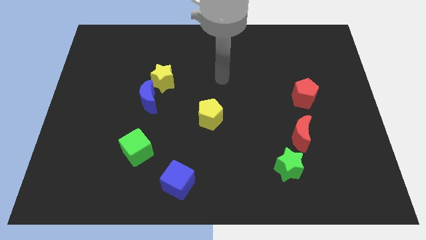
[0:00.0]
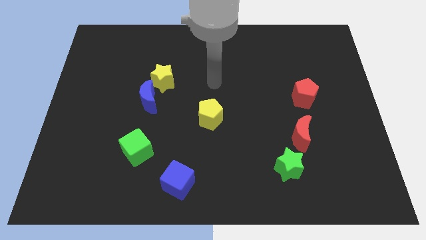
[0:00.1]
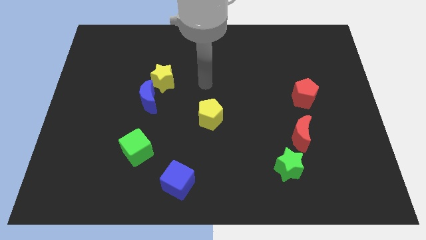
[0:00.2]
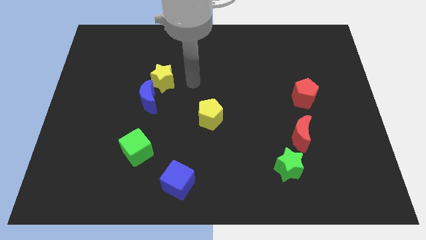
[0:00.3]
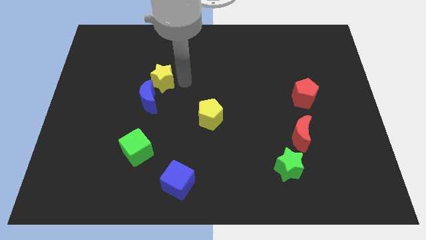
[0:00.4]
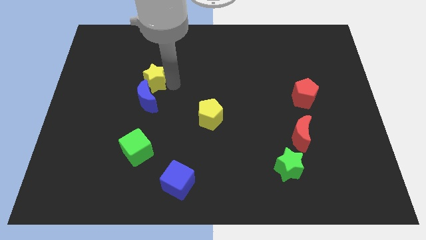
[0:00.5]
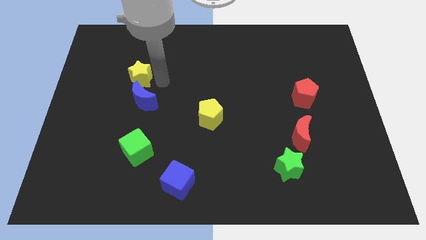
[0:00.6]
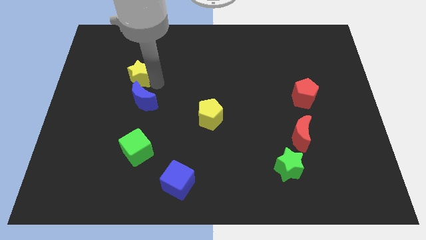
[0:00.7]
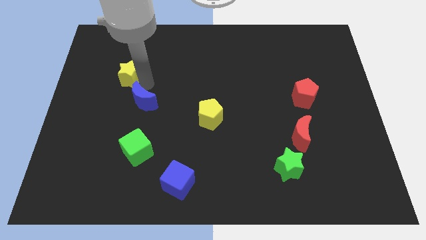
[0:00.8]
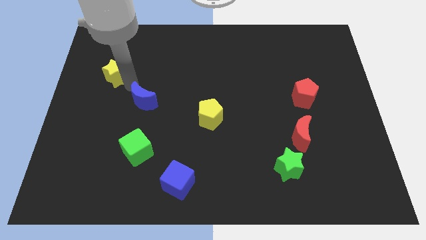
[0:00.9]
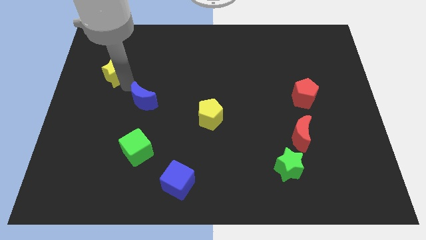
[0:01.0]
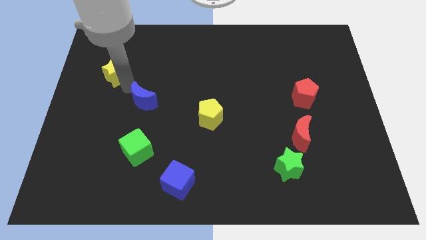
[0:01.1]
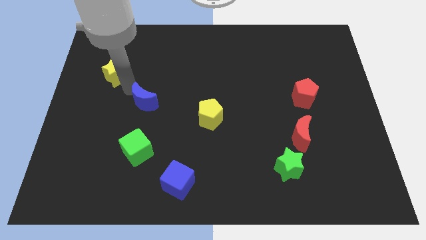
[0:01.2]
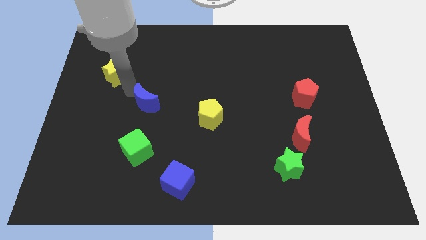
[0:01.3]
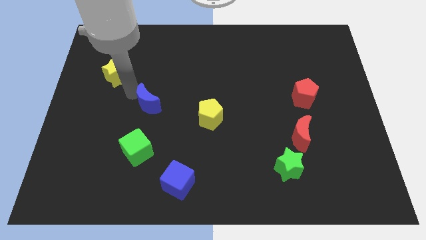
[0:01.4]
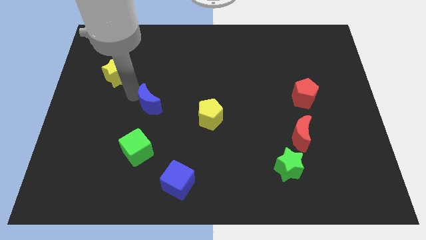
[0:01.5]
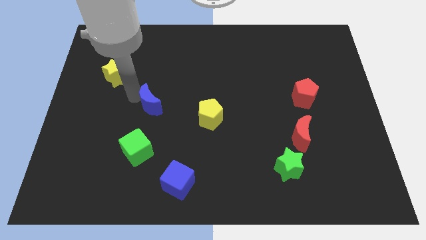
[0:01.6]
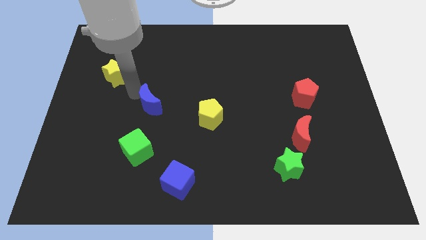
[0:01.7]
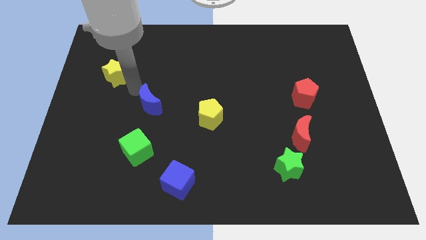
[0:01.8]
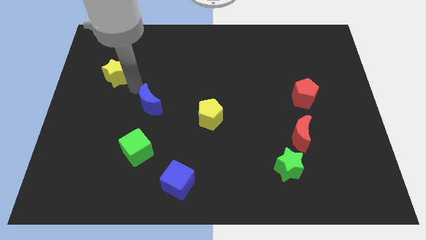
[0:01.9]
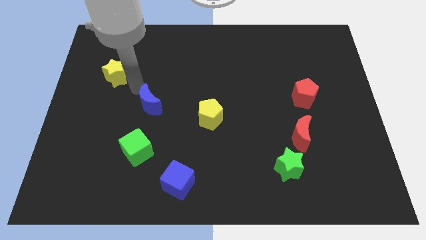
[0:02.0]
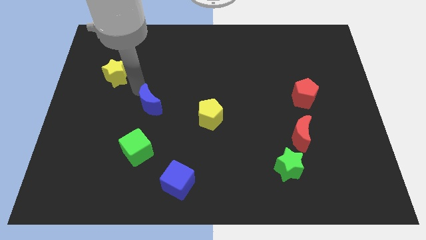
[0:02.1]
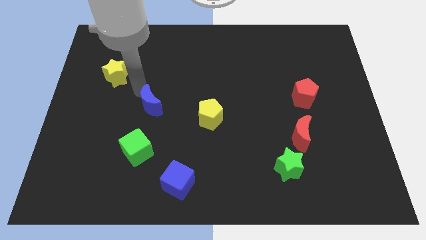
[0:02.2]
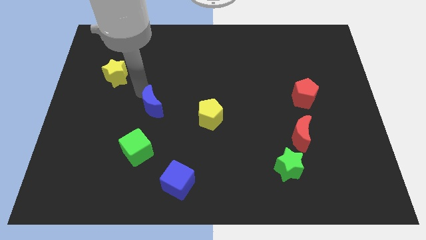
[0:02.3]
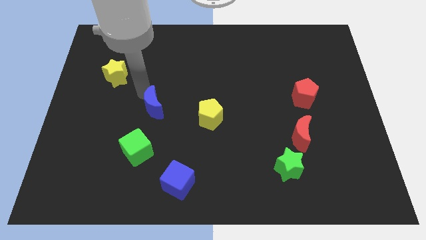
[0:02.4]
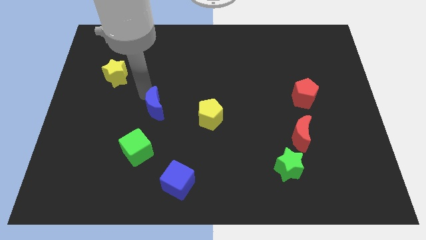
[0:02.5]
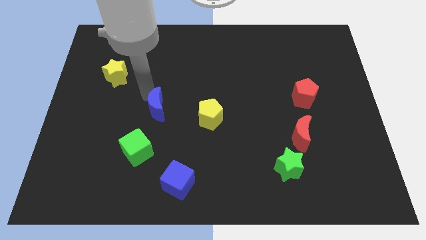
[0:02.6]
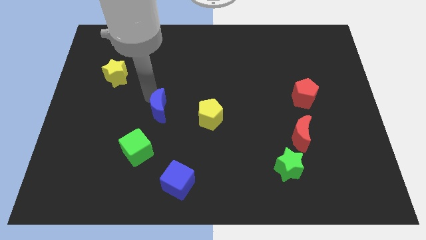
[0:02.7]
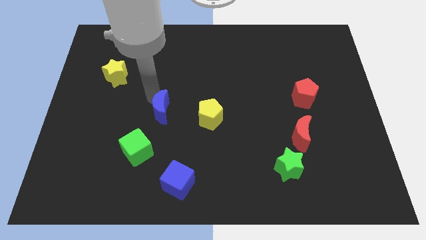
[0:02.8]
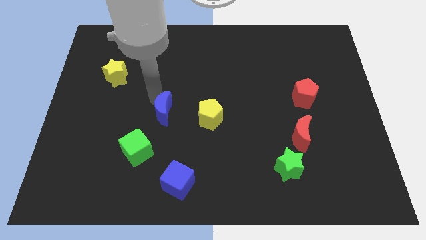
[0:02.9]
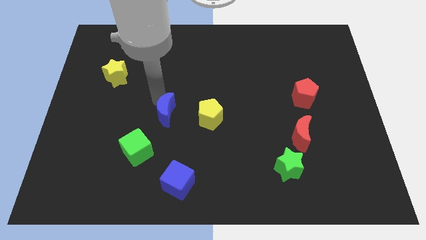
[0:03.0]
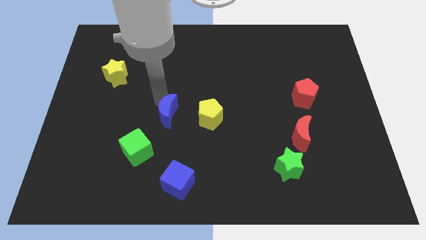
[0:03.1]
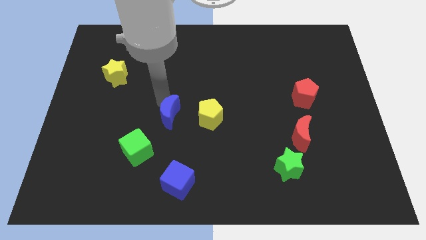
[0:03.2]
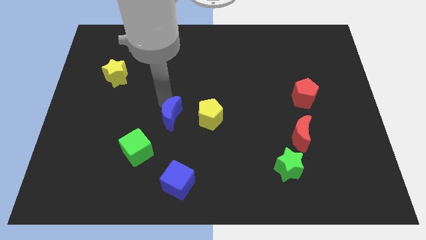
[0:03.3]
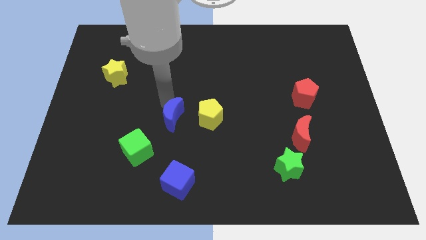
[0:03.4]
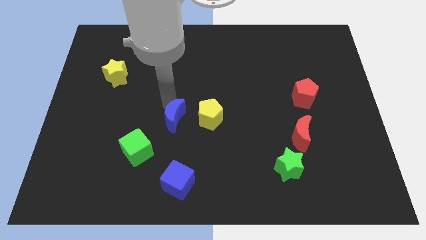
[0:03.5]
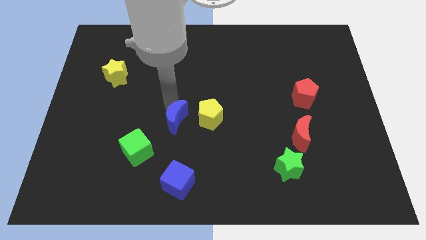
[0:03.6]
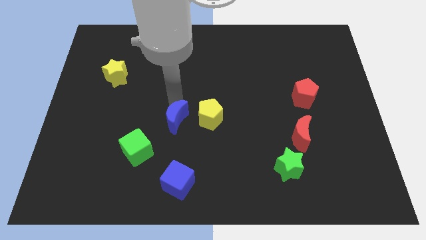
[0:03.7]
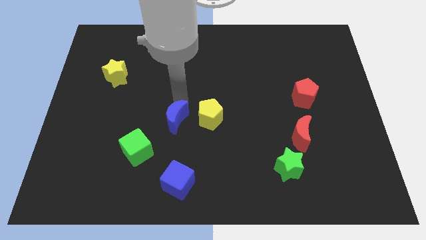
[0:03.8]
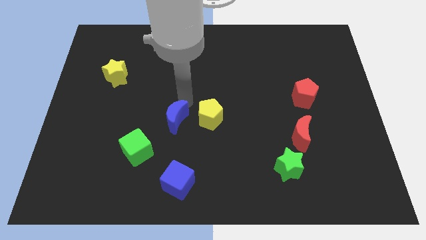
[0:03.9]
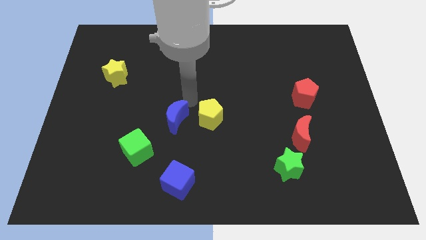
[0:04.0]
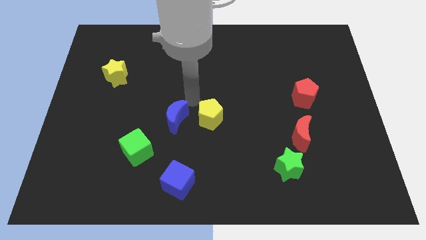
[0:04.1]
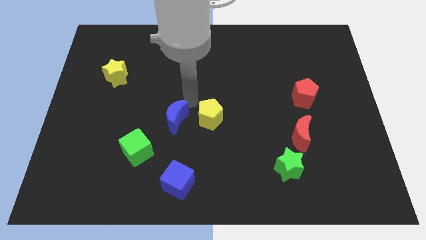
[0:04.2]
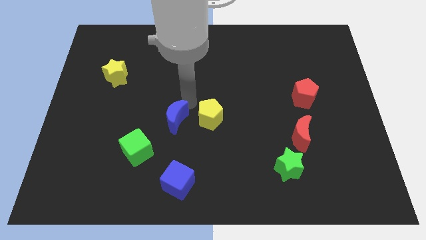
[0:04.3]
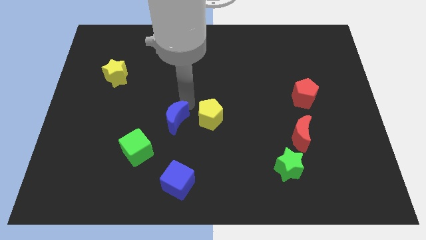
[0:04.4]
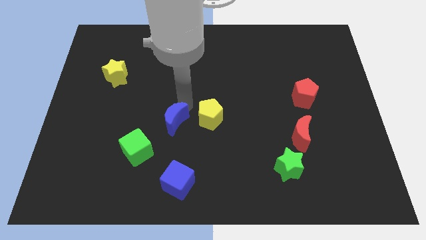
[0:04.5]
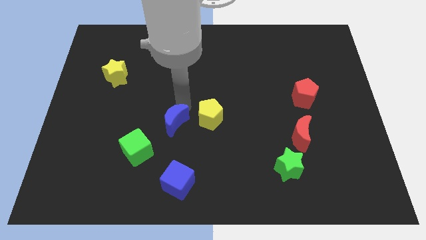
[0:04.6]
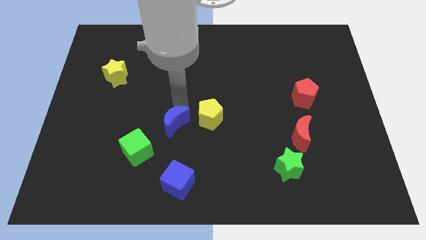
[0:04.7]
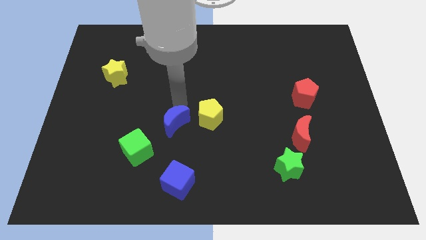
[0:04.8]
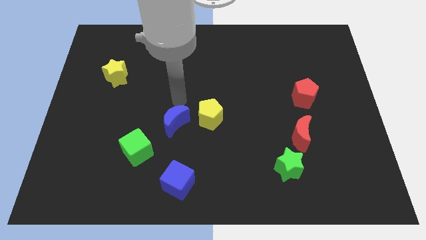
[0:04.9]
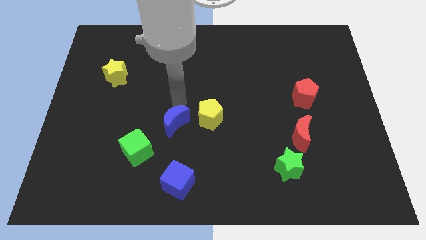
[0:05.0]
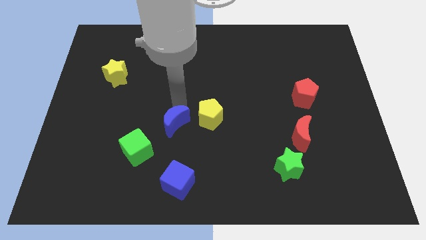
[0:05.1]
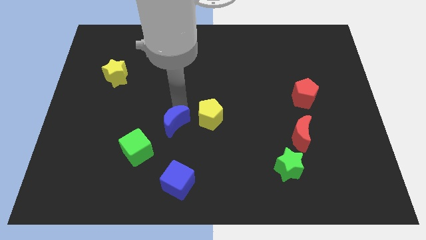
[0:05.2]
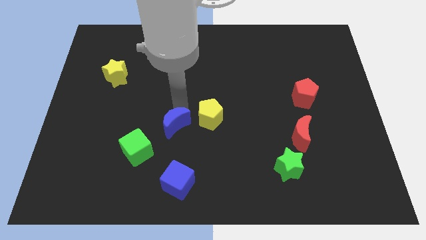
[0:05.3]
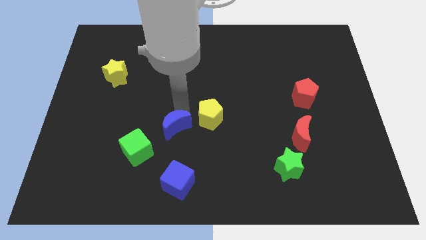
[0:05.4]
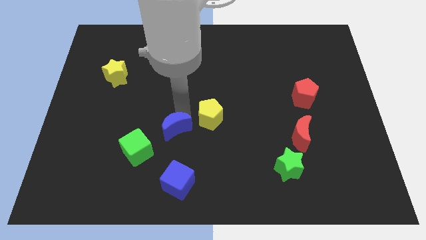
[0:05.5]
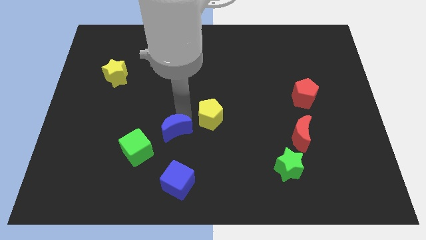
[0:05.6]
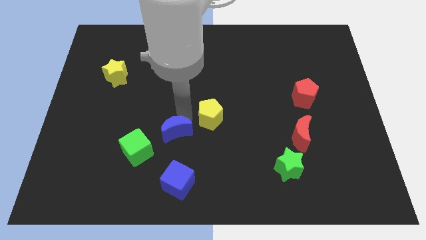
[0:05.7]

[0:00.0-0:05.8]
slightly slide the blue moon downwards

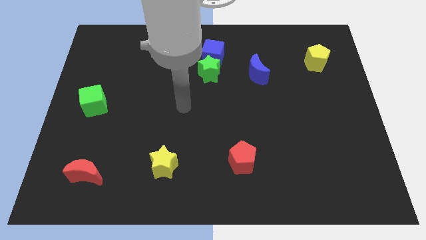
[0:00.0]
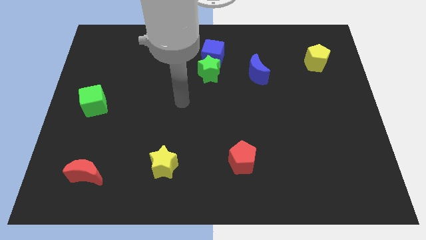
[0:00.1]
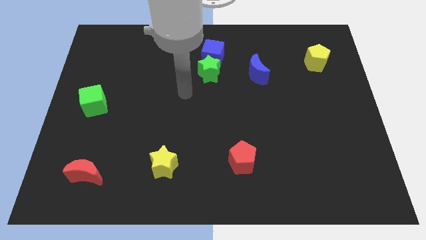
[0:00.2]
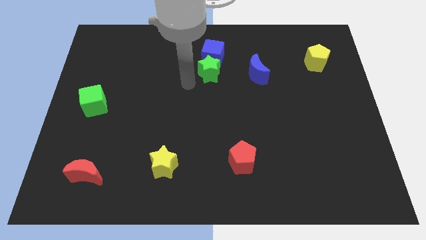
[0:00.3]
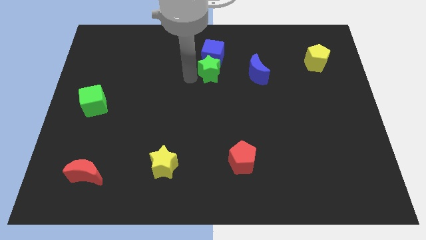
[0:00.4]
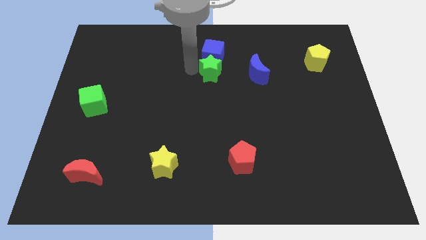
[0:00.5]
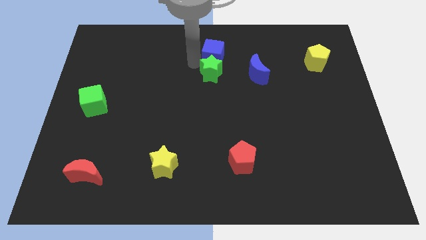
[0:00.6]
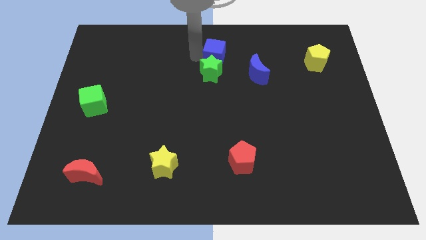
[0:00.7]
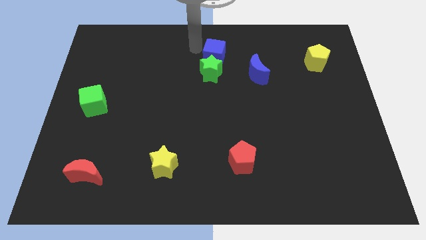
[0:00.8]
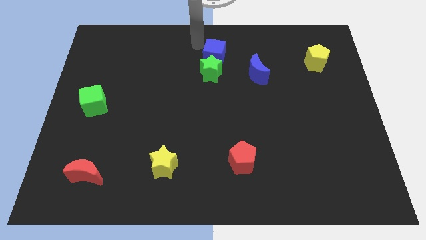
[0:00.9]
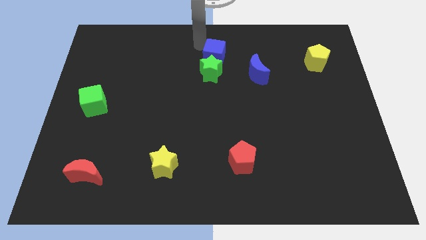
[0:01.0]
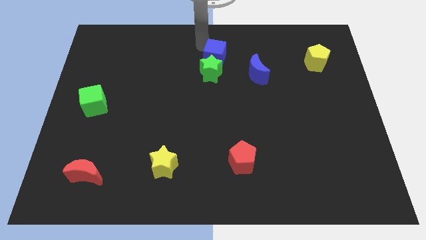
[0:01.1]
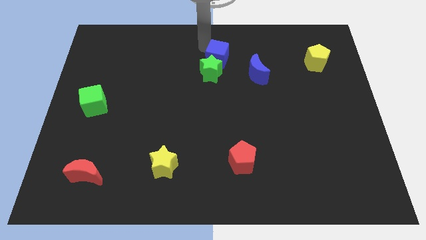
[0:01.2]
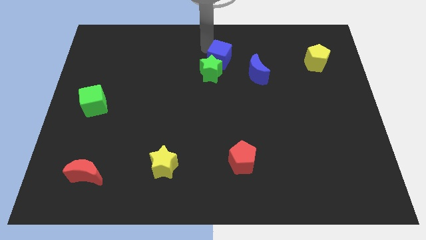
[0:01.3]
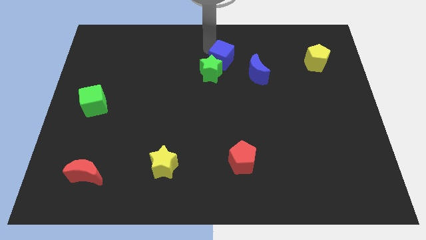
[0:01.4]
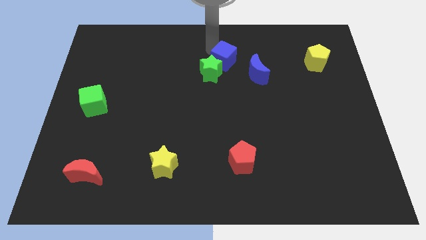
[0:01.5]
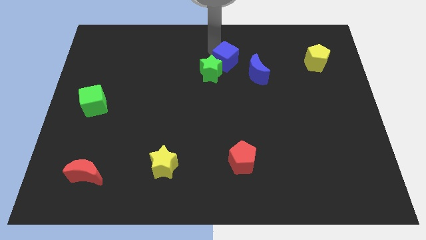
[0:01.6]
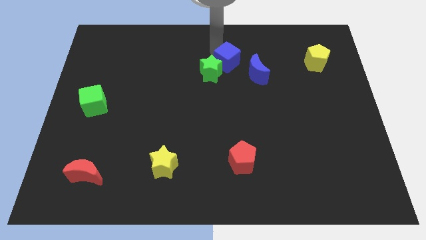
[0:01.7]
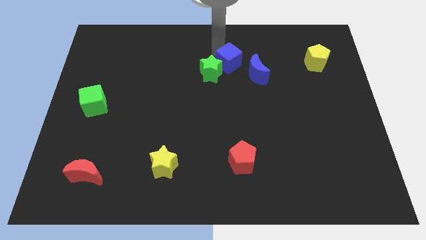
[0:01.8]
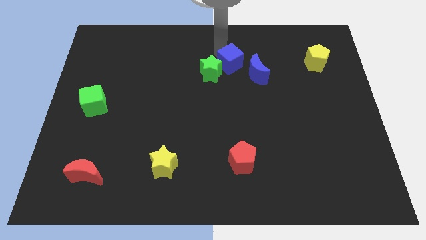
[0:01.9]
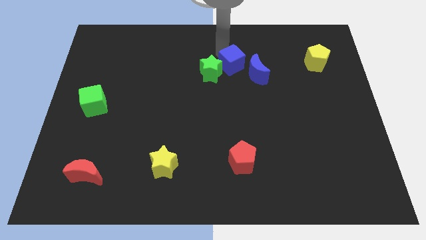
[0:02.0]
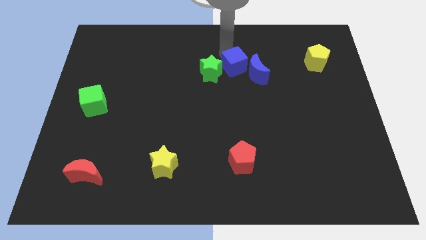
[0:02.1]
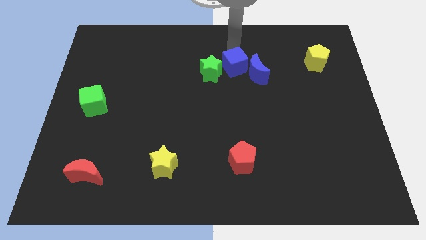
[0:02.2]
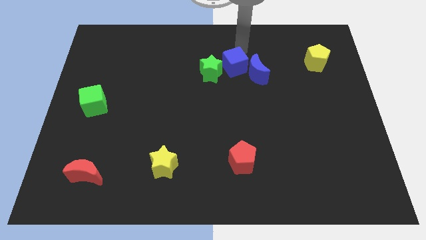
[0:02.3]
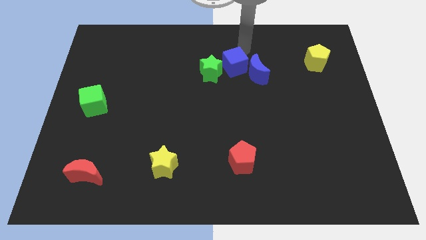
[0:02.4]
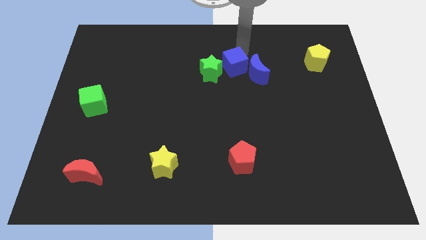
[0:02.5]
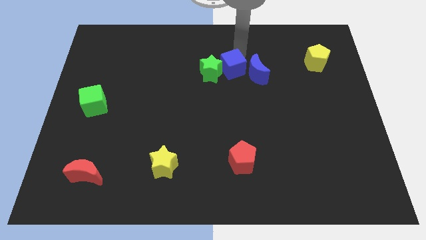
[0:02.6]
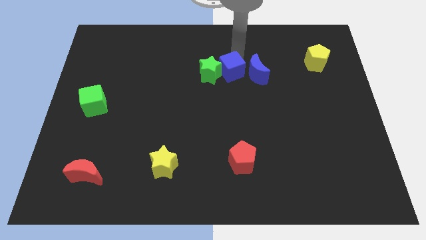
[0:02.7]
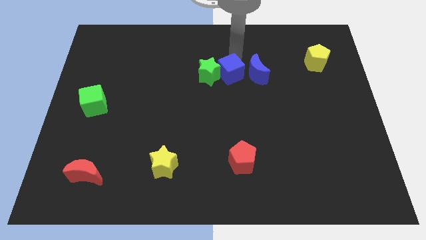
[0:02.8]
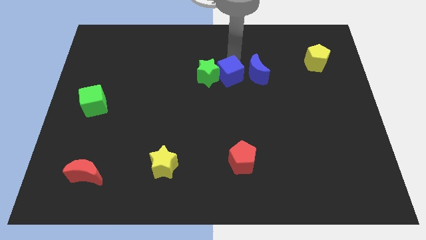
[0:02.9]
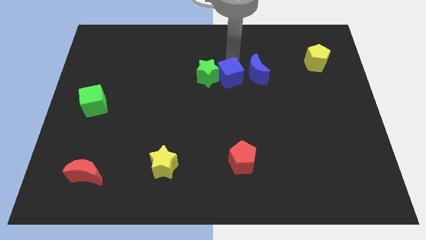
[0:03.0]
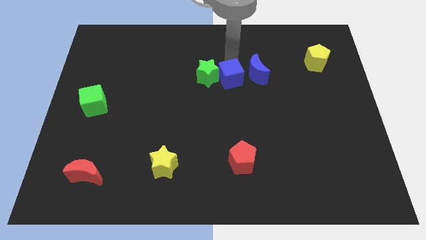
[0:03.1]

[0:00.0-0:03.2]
push the blue cube downwards a little bit
